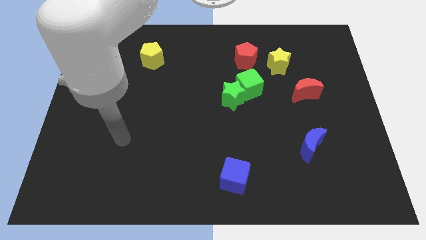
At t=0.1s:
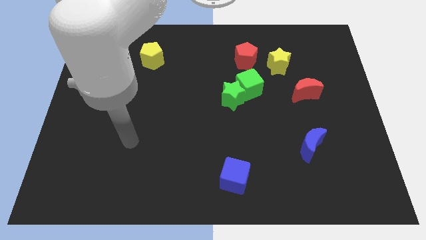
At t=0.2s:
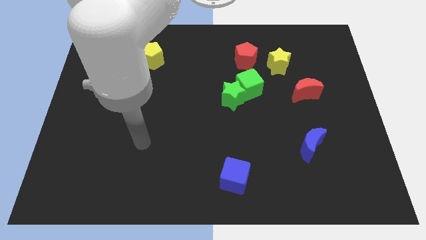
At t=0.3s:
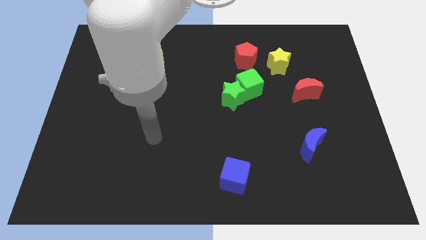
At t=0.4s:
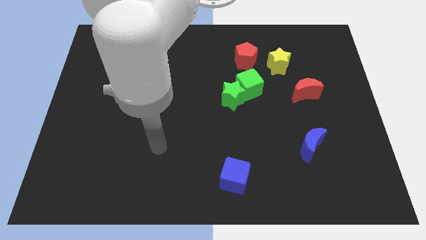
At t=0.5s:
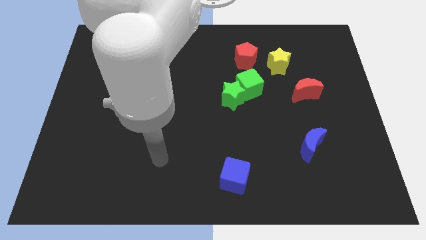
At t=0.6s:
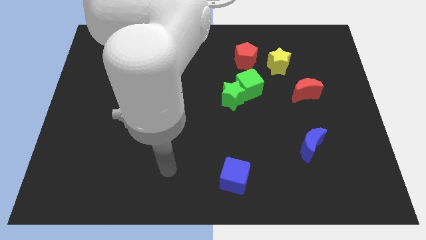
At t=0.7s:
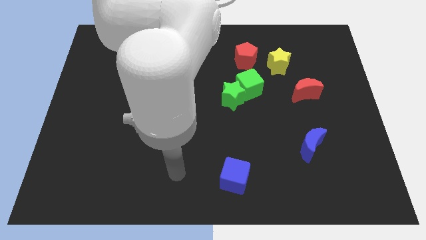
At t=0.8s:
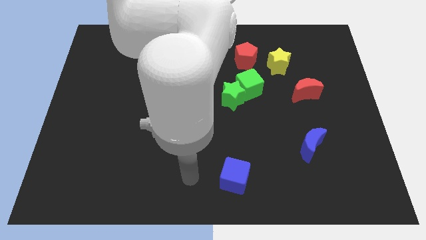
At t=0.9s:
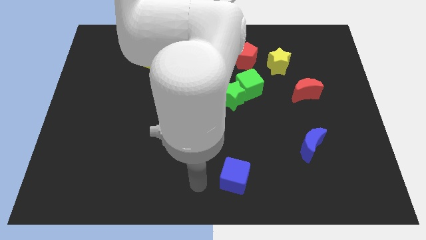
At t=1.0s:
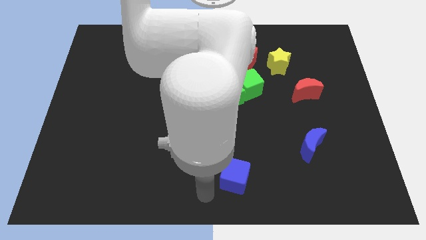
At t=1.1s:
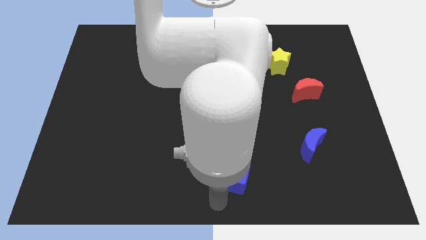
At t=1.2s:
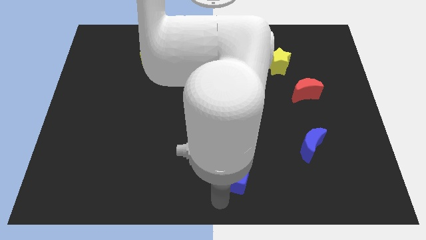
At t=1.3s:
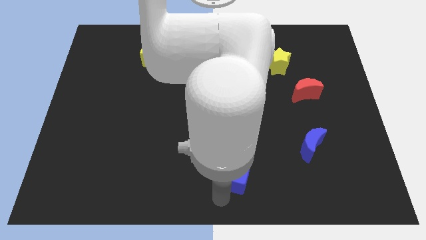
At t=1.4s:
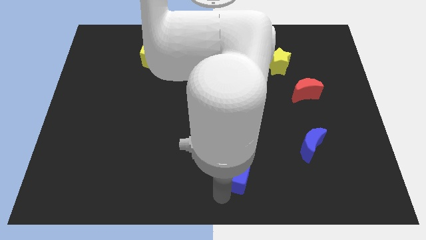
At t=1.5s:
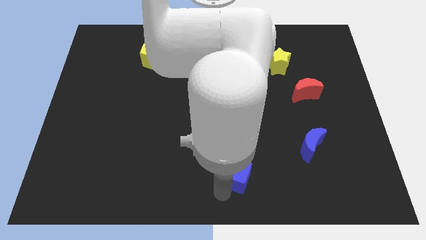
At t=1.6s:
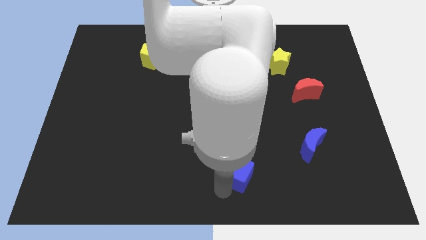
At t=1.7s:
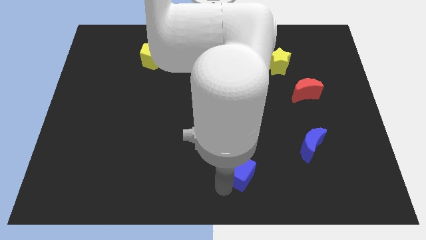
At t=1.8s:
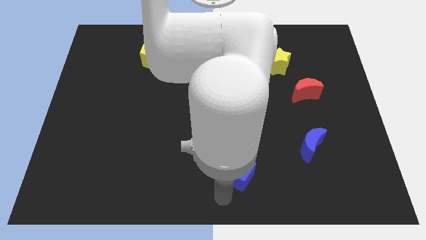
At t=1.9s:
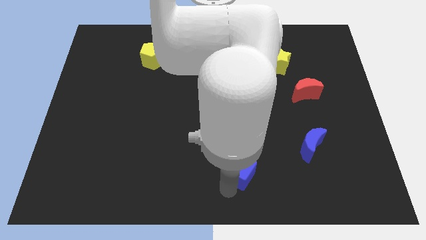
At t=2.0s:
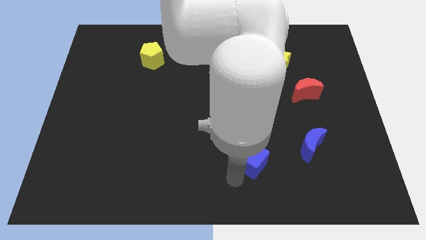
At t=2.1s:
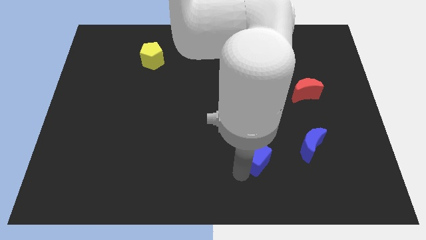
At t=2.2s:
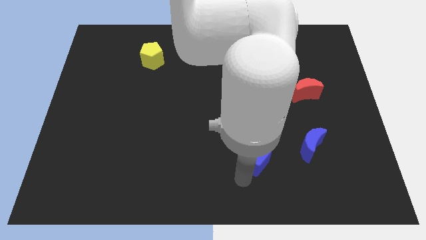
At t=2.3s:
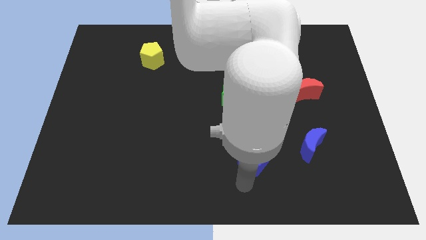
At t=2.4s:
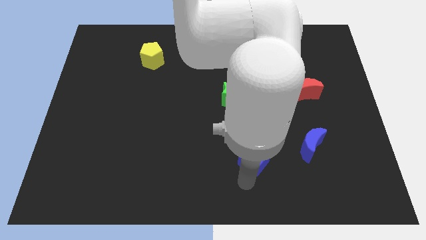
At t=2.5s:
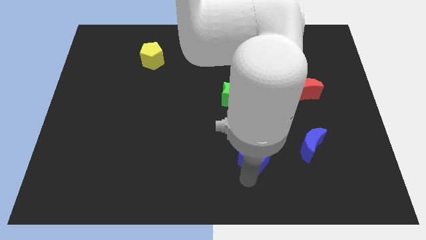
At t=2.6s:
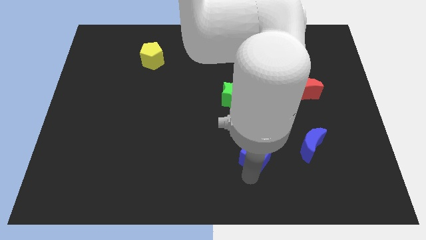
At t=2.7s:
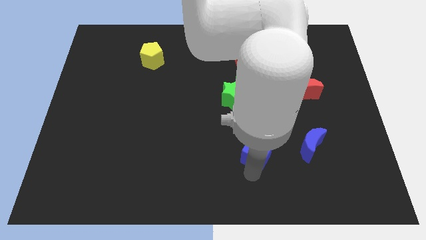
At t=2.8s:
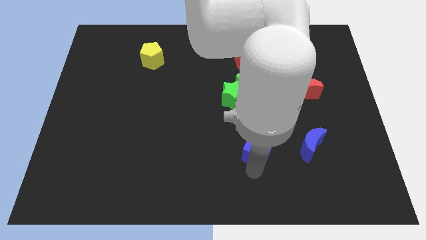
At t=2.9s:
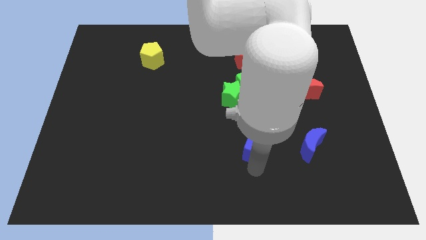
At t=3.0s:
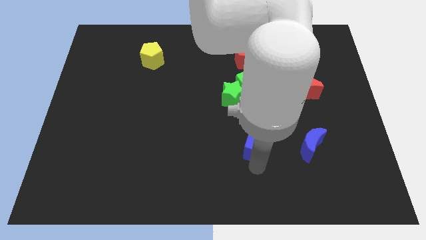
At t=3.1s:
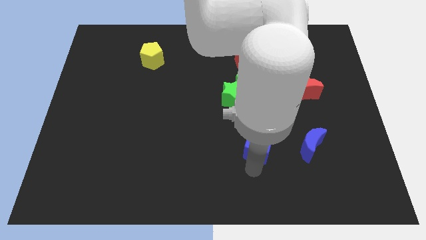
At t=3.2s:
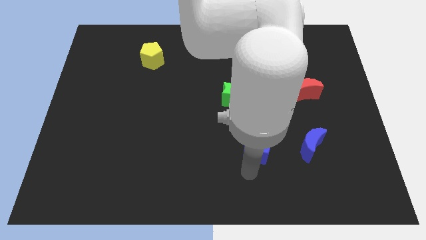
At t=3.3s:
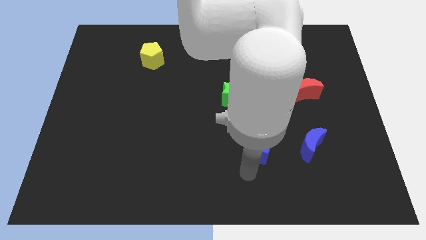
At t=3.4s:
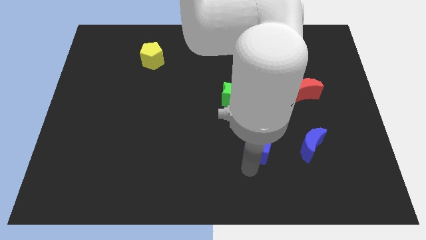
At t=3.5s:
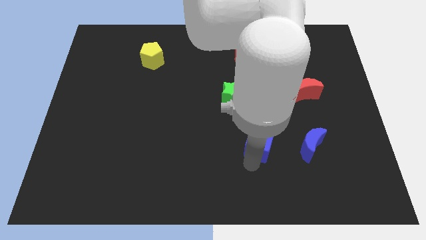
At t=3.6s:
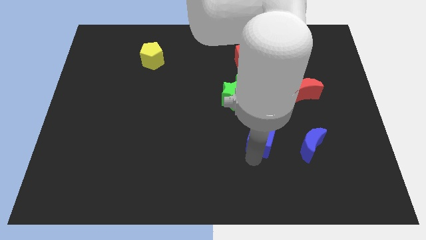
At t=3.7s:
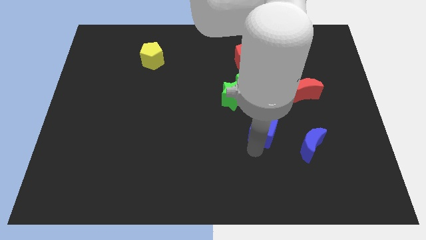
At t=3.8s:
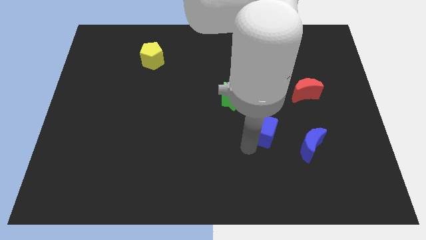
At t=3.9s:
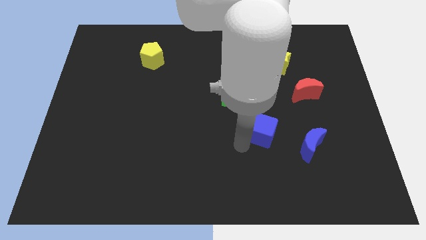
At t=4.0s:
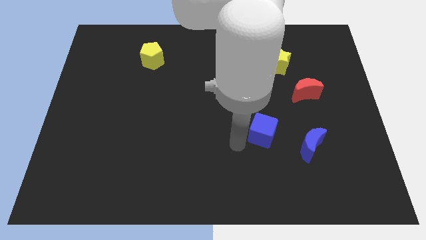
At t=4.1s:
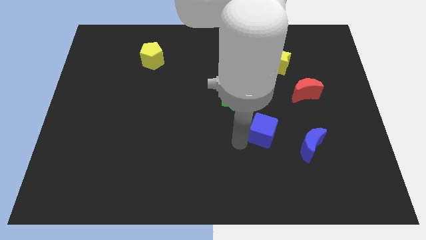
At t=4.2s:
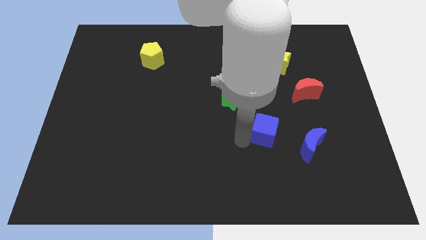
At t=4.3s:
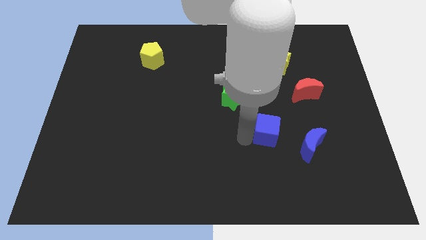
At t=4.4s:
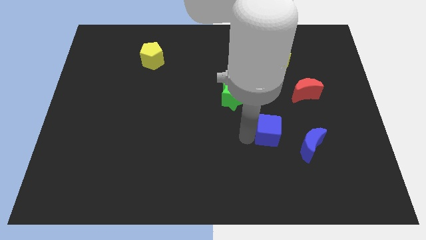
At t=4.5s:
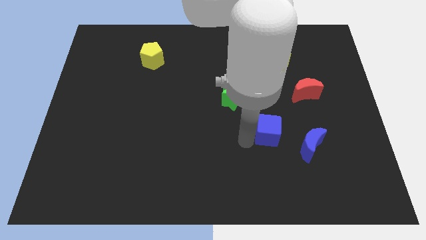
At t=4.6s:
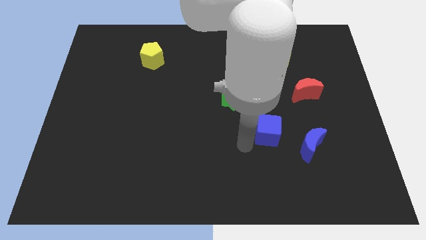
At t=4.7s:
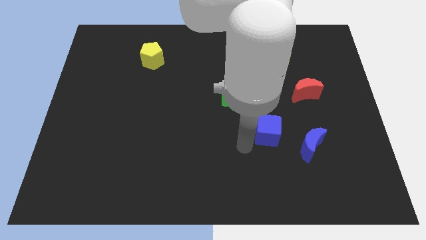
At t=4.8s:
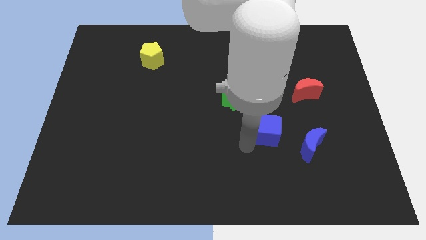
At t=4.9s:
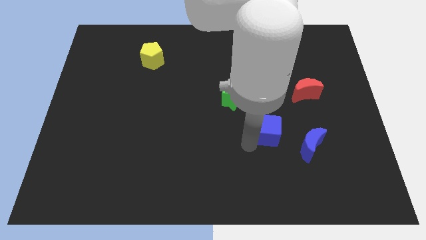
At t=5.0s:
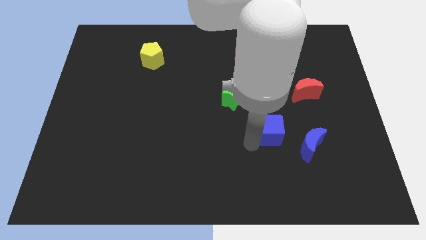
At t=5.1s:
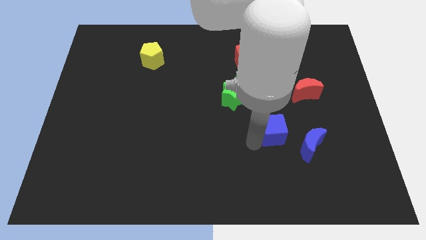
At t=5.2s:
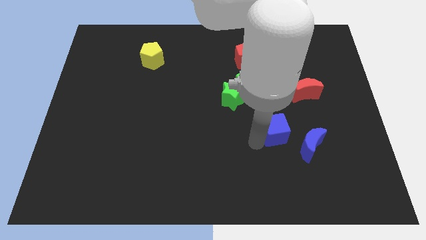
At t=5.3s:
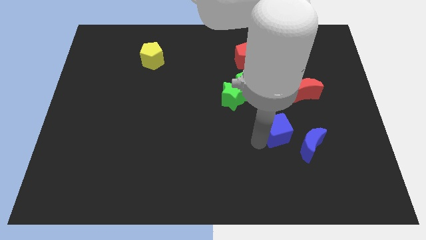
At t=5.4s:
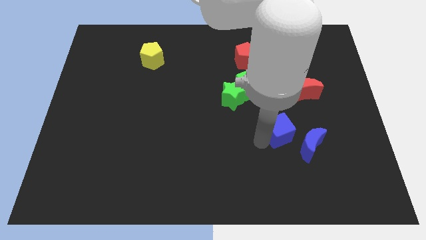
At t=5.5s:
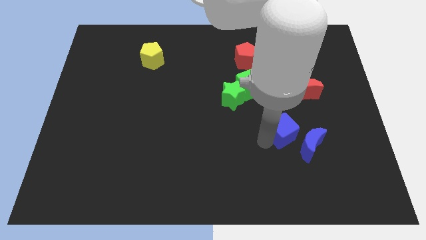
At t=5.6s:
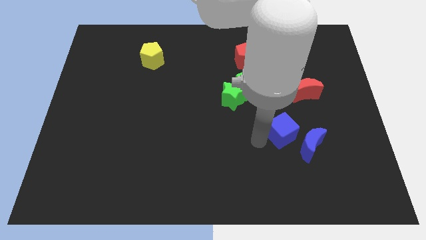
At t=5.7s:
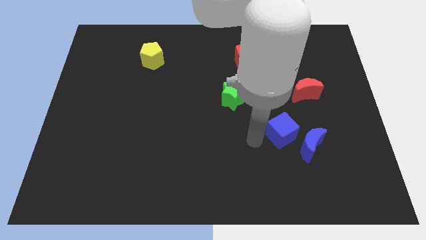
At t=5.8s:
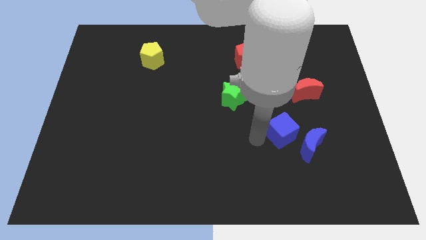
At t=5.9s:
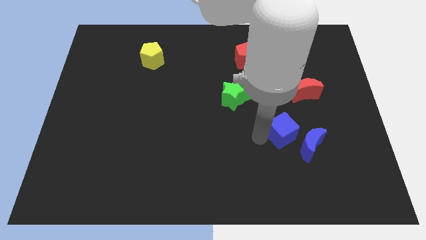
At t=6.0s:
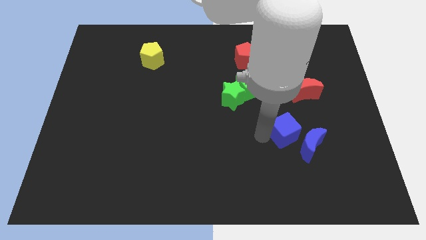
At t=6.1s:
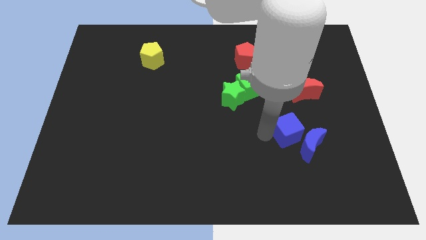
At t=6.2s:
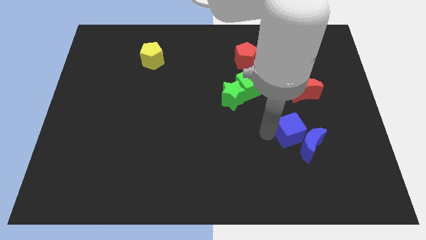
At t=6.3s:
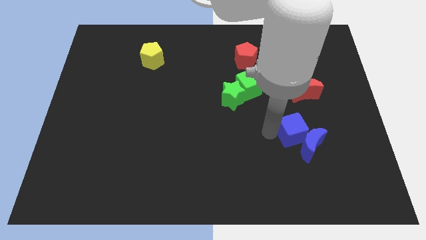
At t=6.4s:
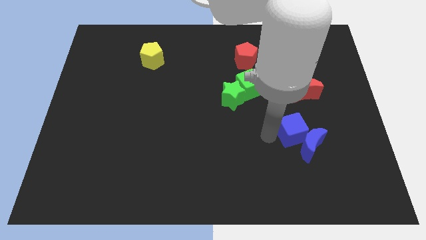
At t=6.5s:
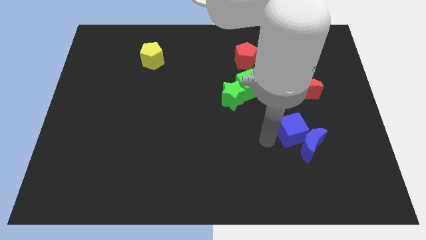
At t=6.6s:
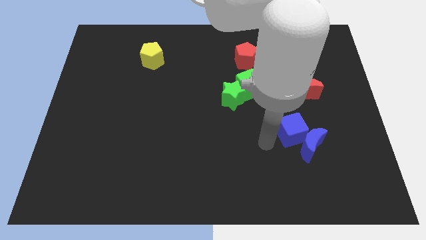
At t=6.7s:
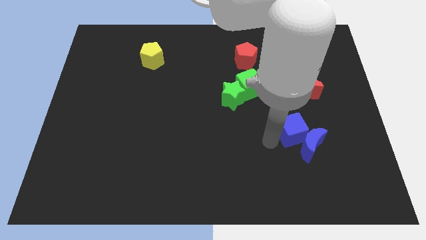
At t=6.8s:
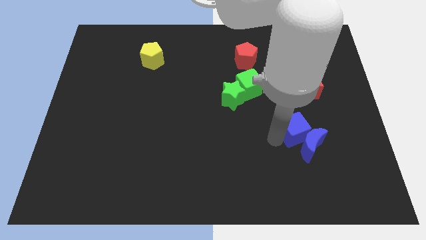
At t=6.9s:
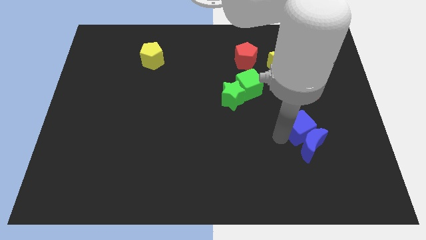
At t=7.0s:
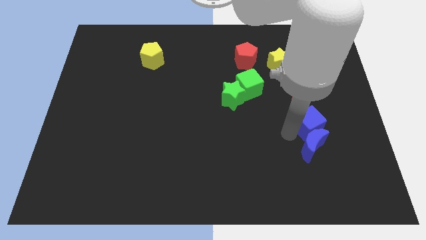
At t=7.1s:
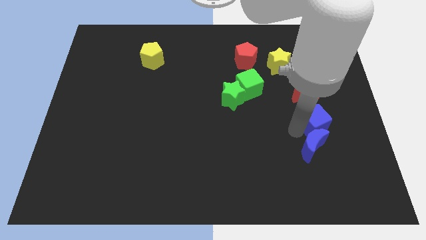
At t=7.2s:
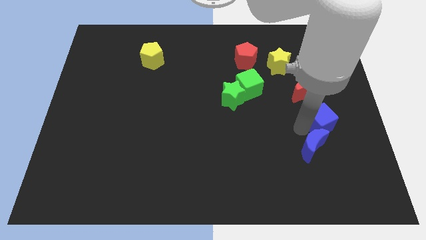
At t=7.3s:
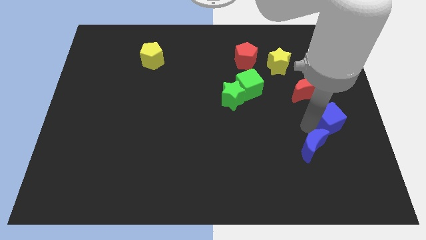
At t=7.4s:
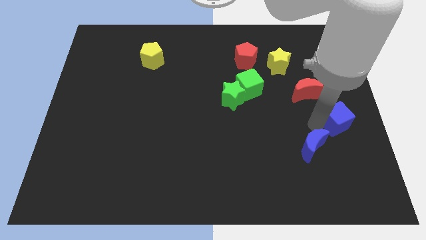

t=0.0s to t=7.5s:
move the blue cube to the right side

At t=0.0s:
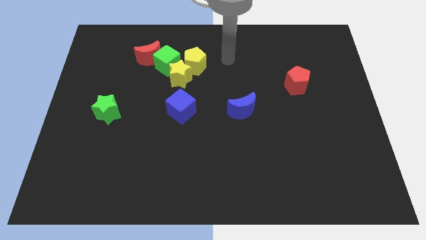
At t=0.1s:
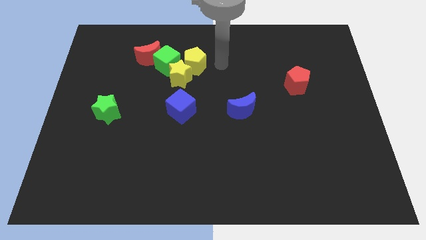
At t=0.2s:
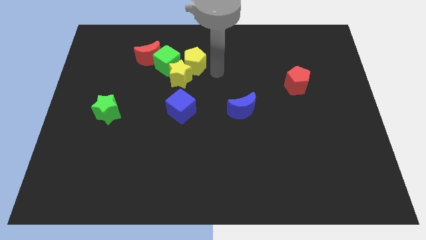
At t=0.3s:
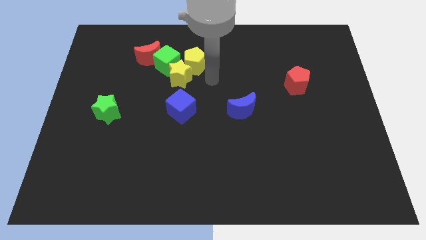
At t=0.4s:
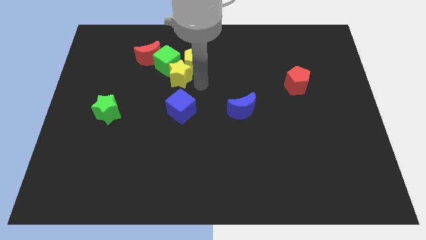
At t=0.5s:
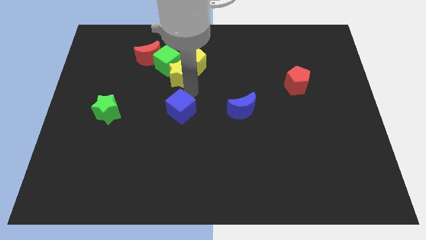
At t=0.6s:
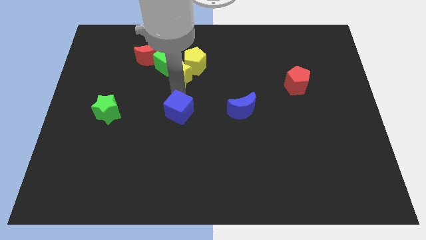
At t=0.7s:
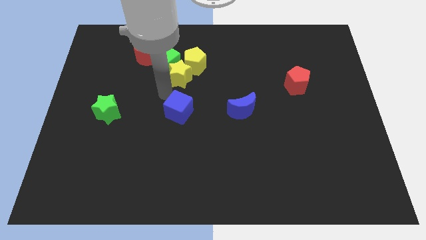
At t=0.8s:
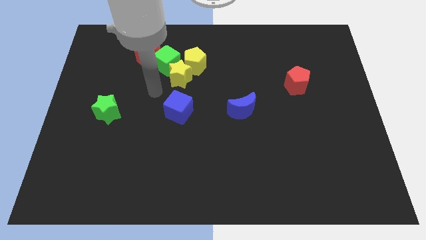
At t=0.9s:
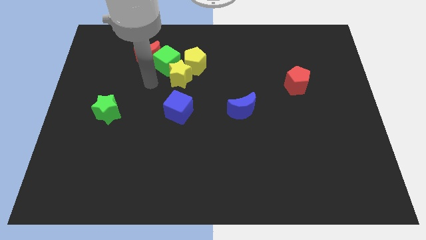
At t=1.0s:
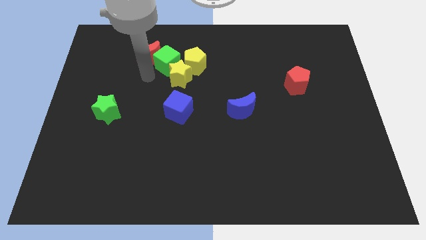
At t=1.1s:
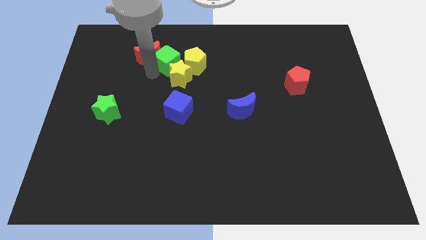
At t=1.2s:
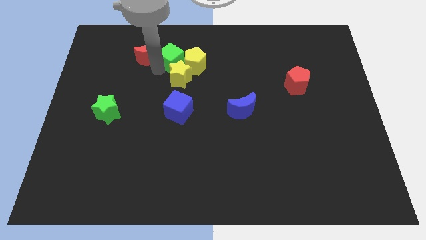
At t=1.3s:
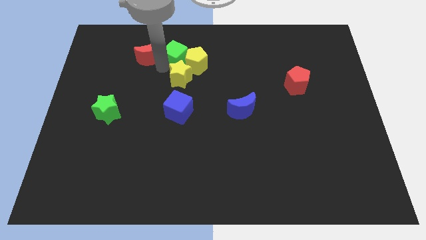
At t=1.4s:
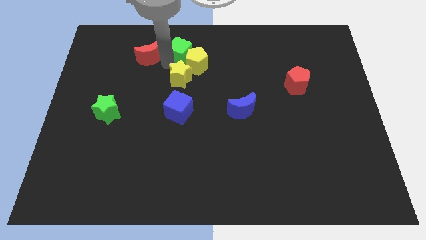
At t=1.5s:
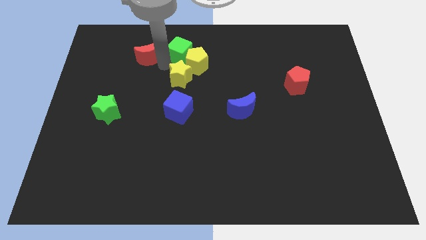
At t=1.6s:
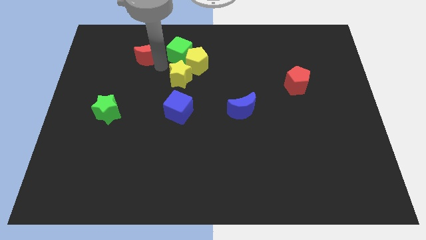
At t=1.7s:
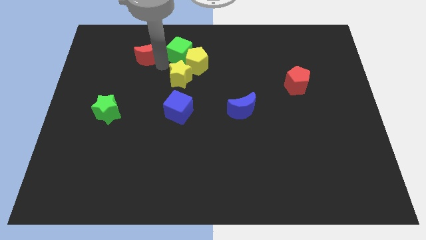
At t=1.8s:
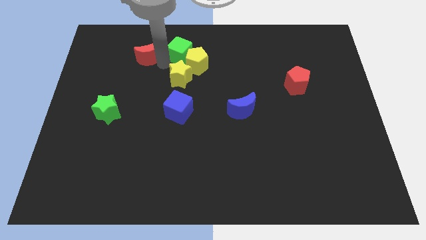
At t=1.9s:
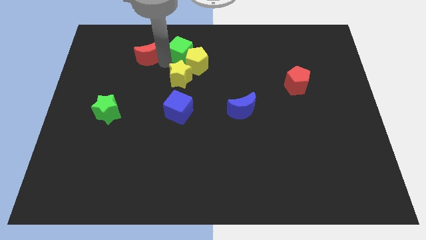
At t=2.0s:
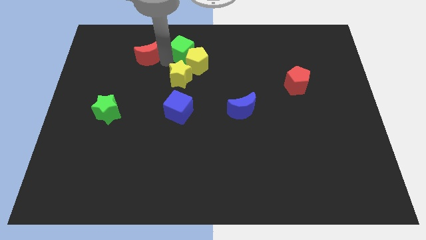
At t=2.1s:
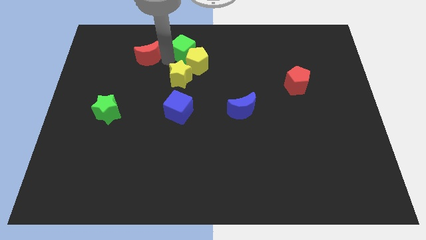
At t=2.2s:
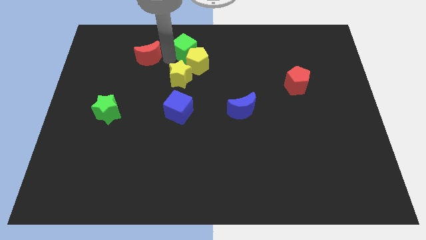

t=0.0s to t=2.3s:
slide the green cube to the top
